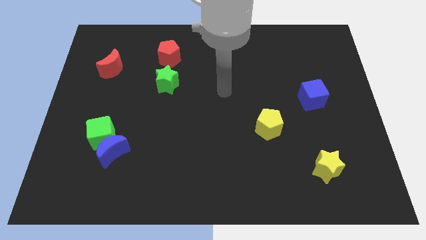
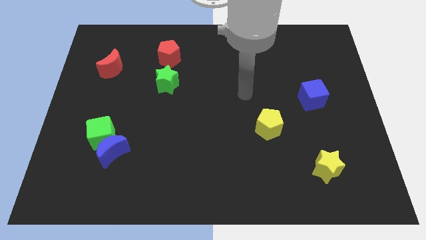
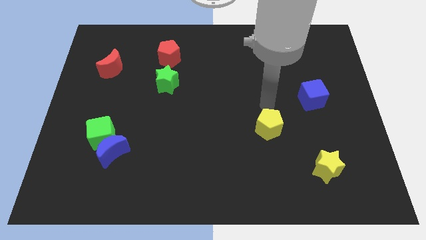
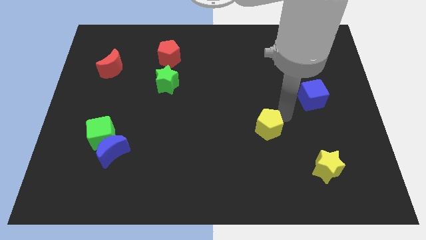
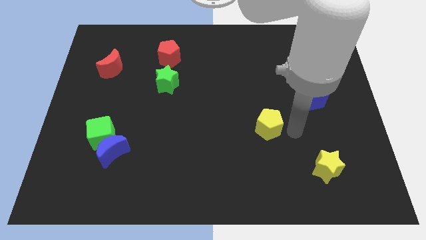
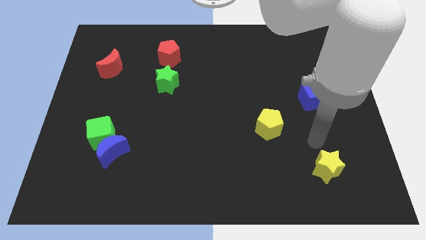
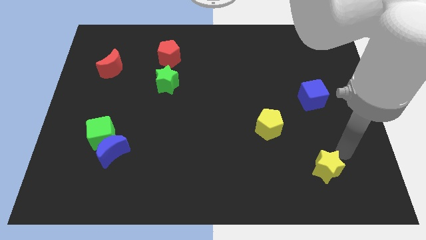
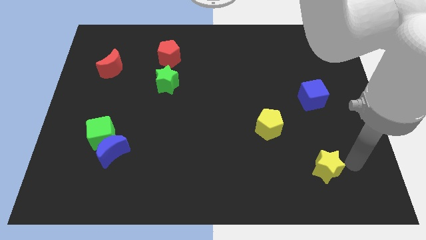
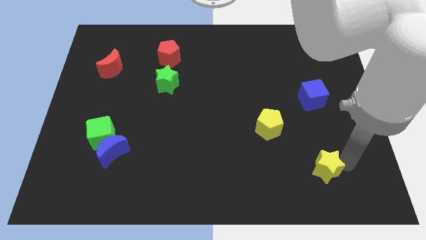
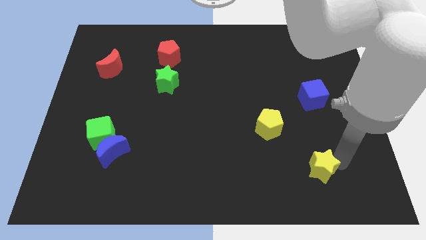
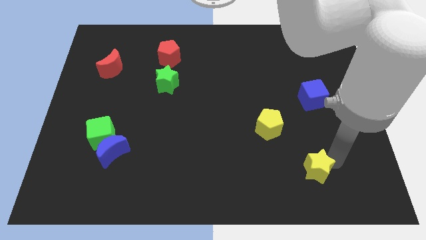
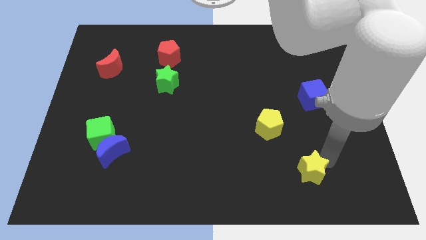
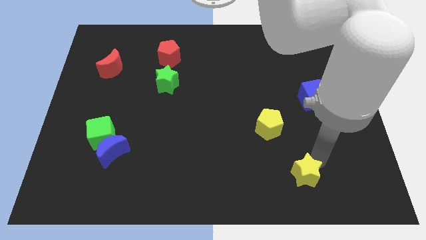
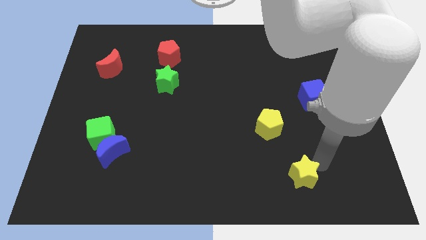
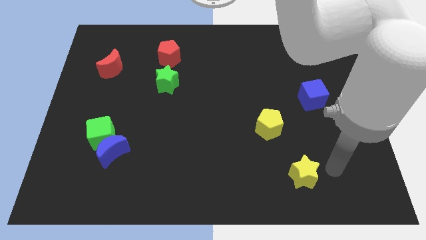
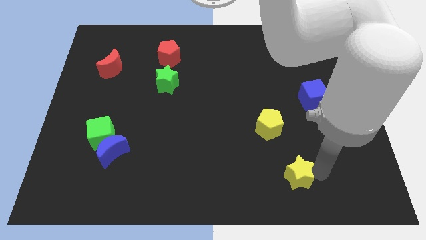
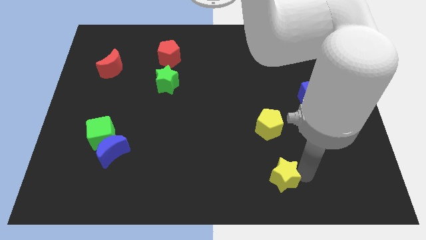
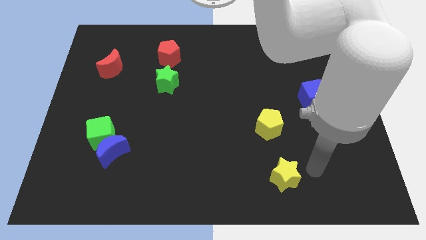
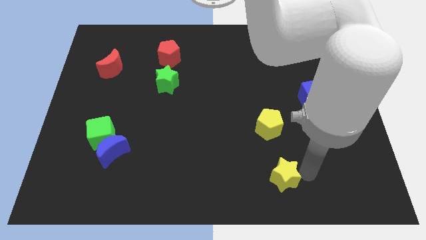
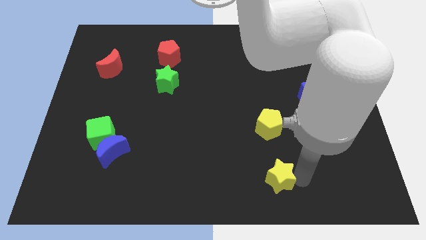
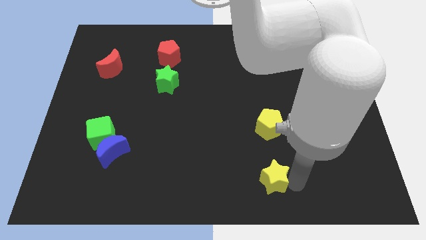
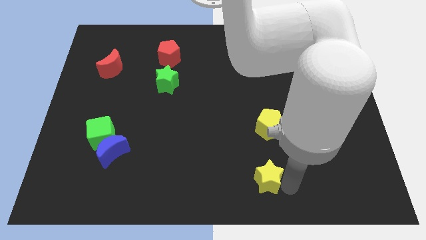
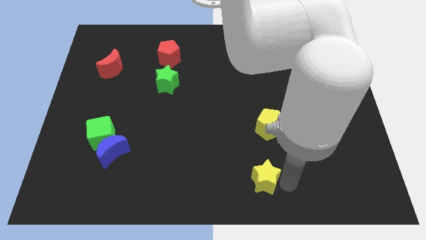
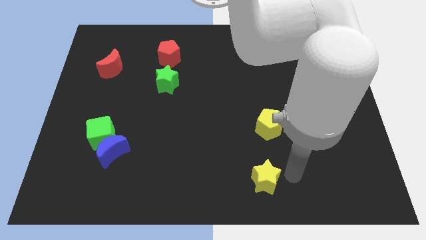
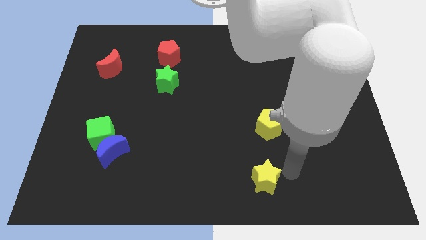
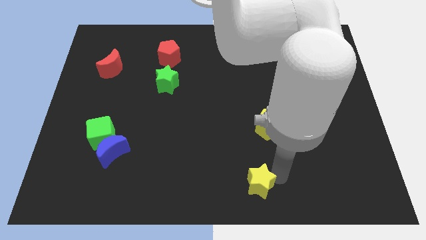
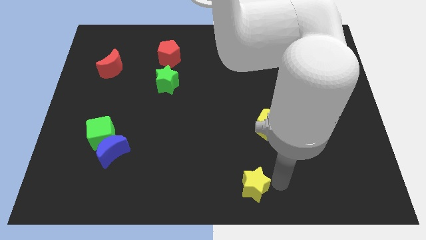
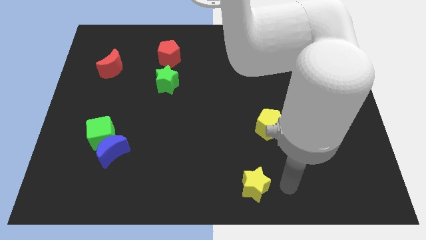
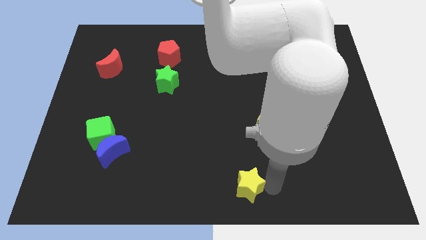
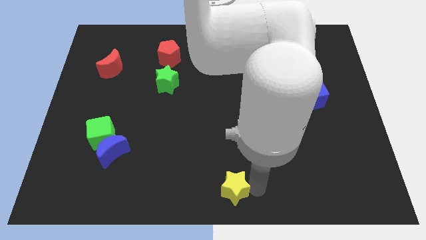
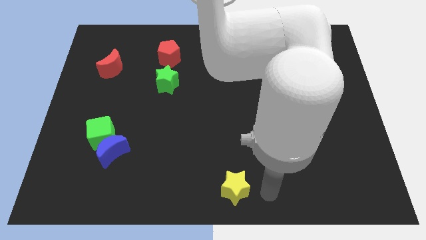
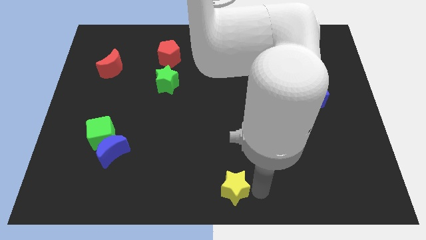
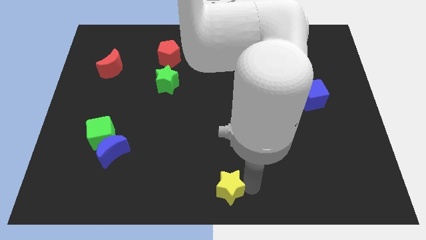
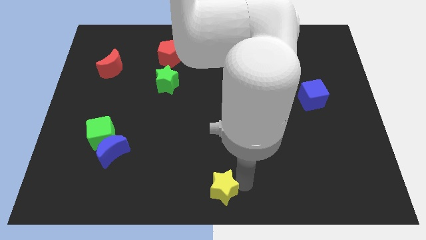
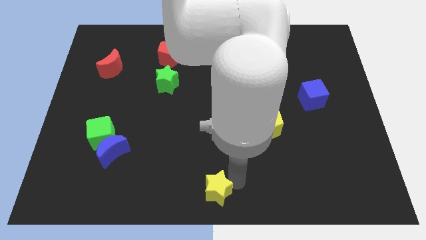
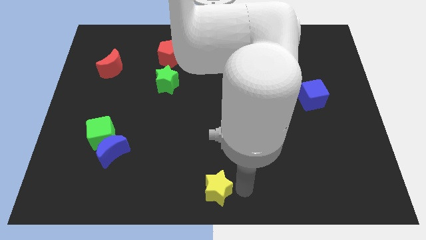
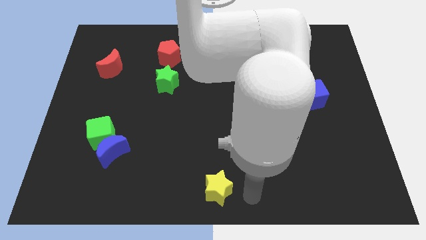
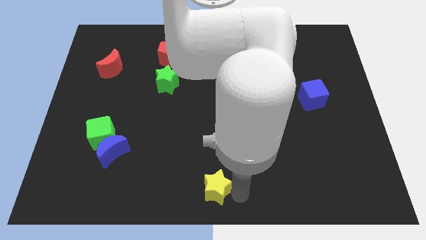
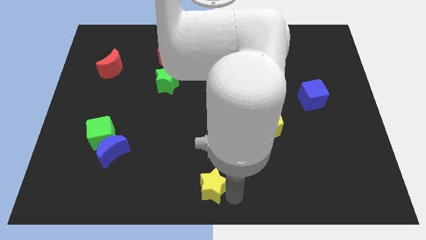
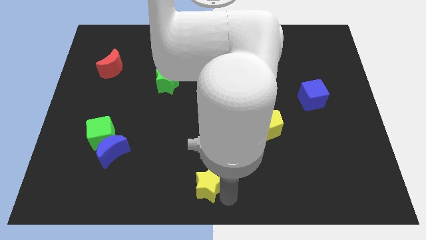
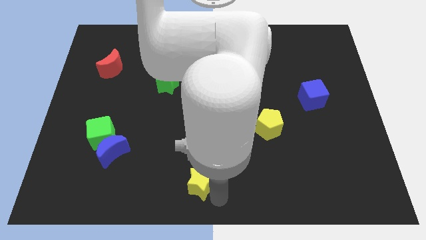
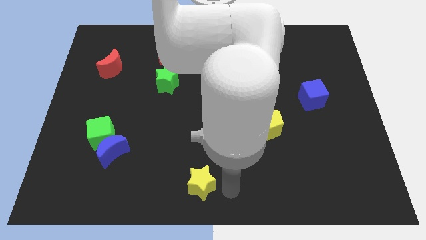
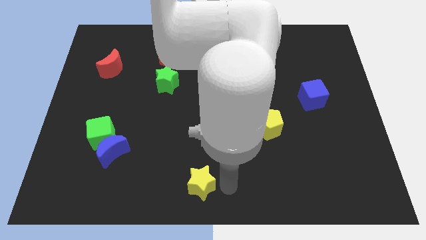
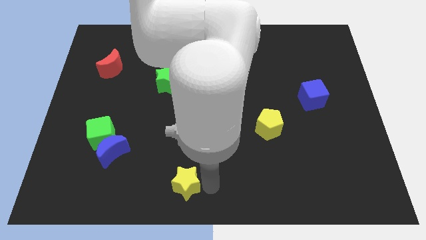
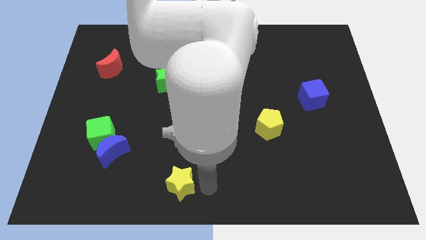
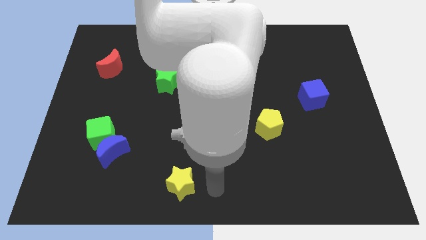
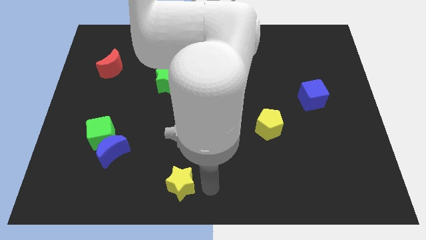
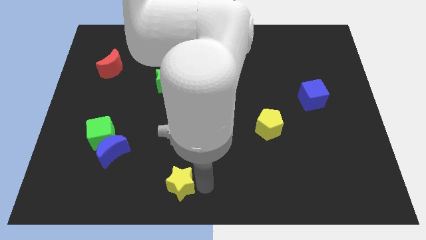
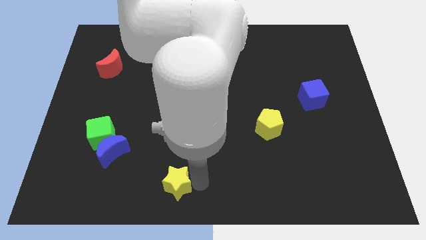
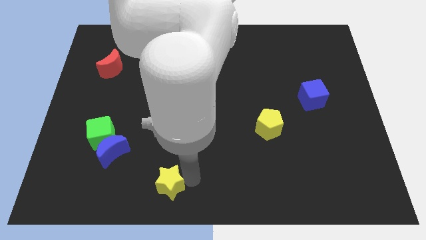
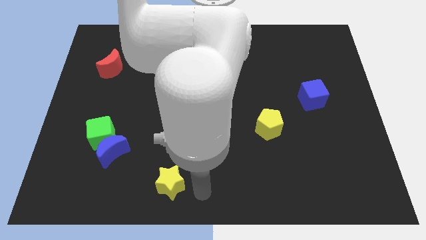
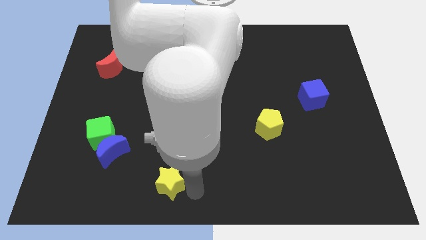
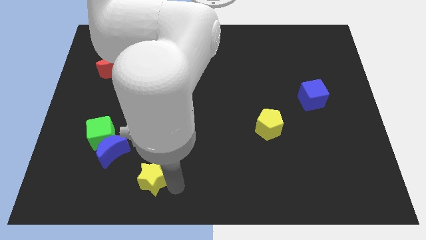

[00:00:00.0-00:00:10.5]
push the yellow star to the bottom right of the blue moon

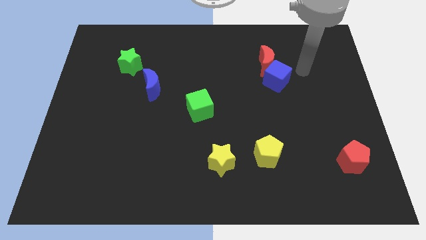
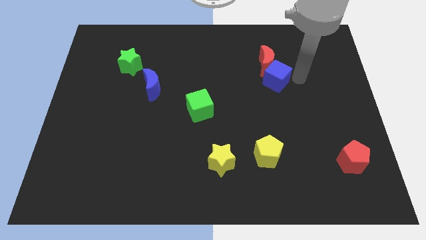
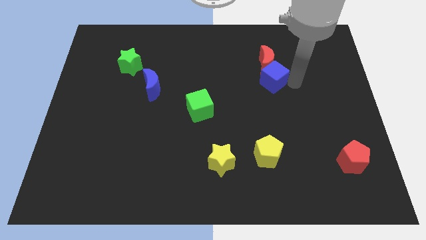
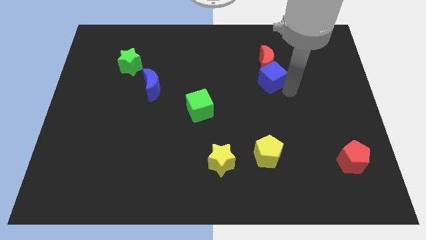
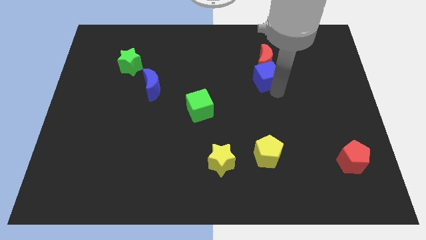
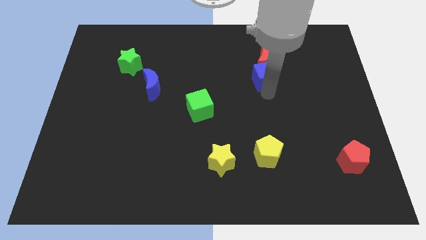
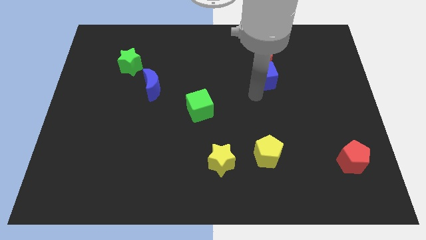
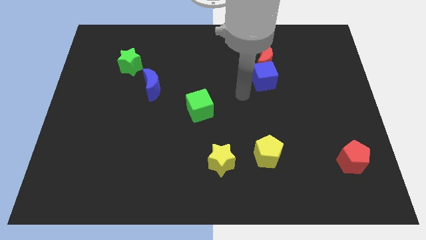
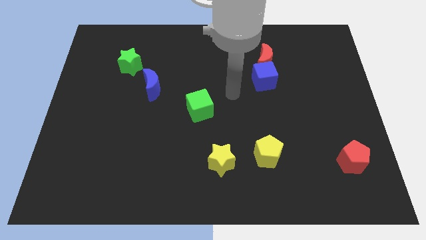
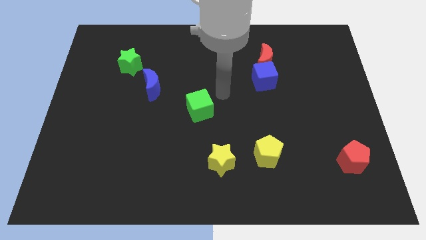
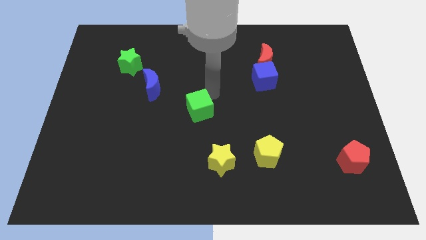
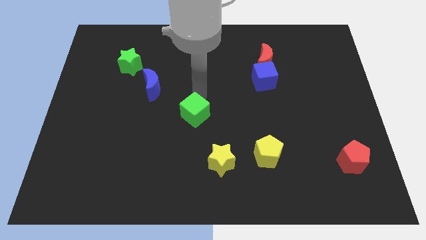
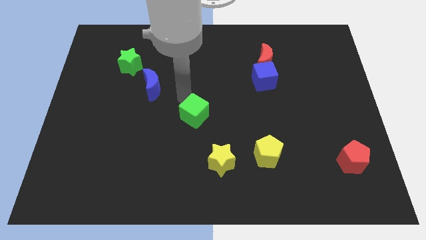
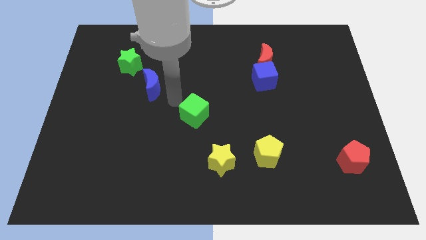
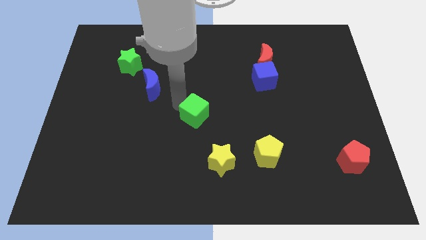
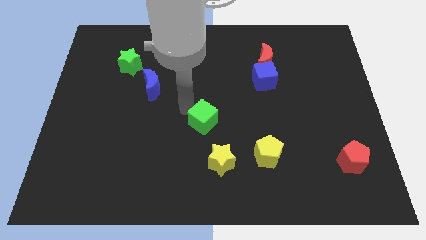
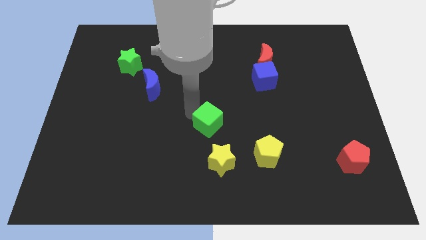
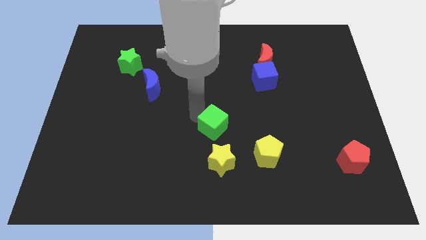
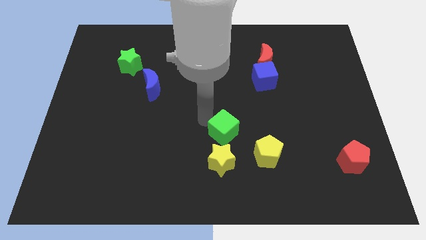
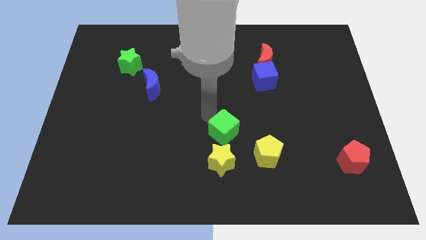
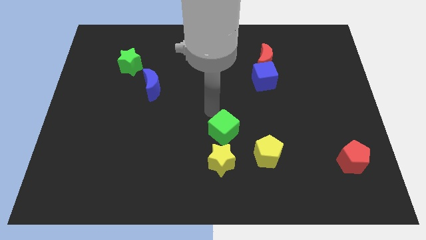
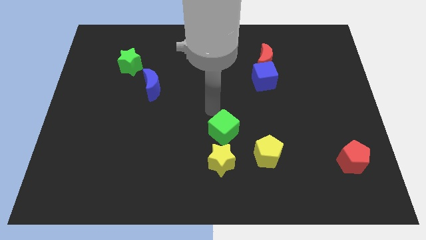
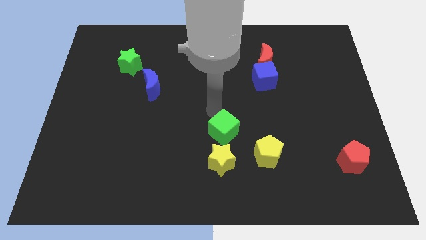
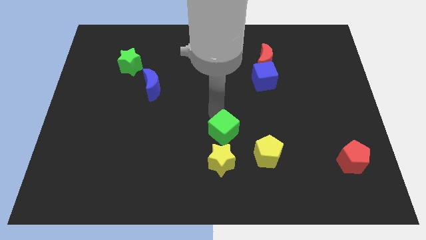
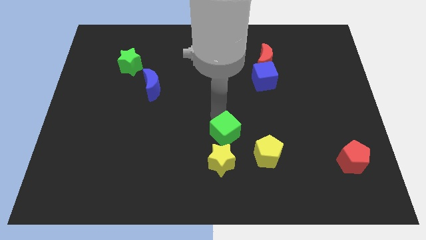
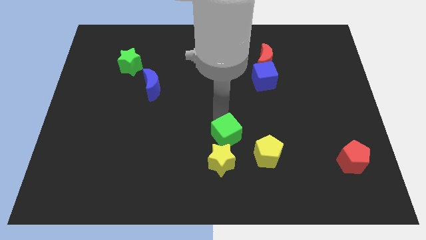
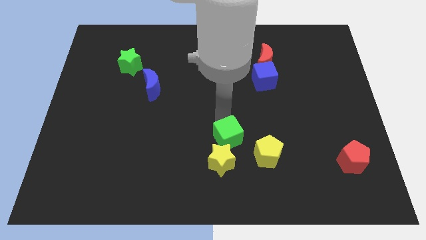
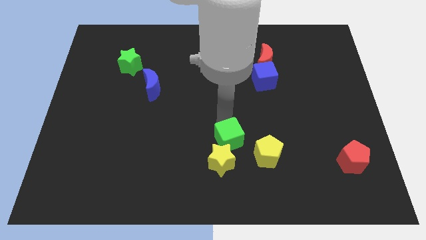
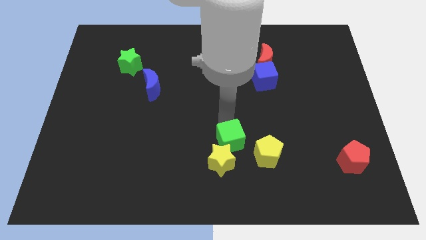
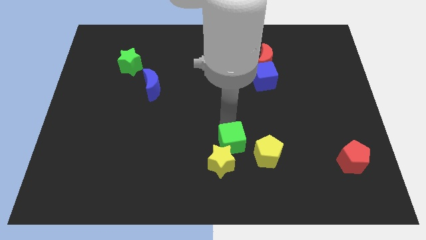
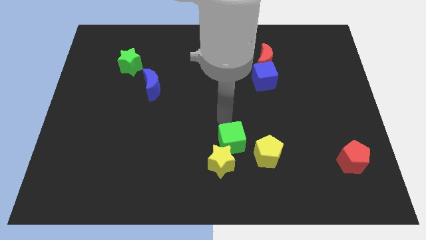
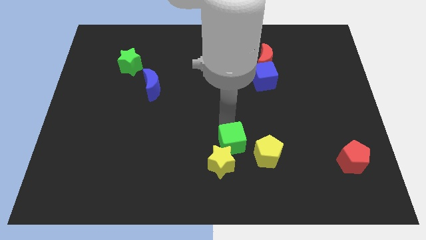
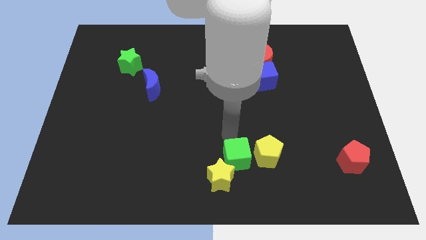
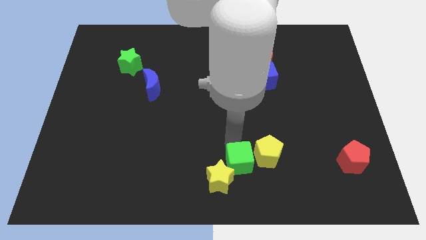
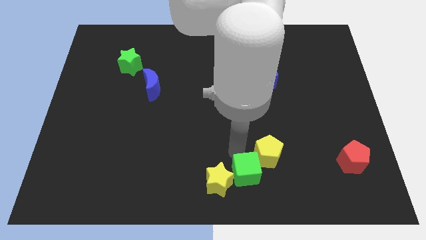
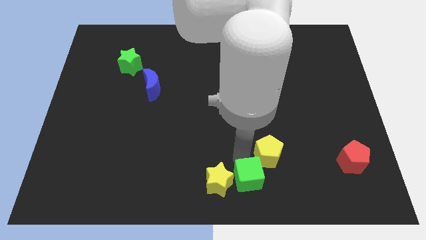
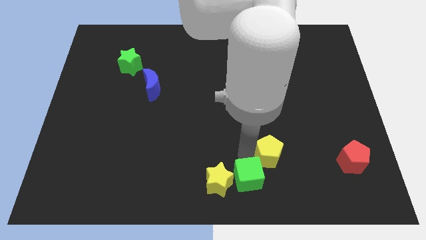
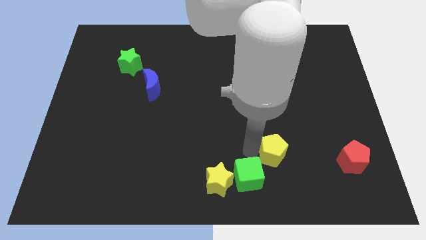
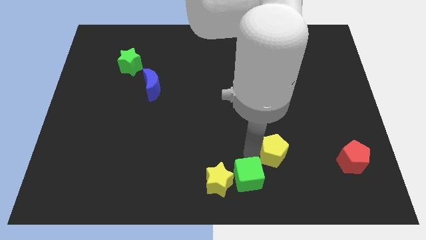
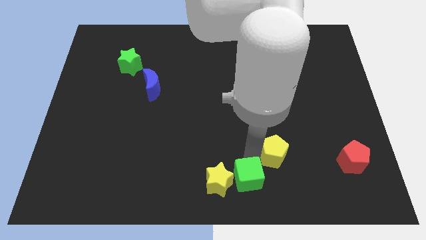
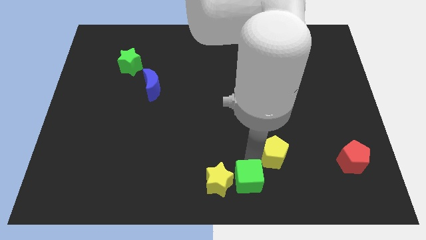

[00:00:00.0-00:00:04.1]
put the green cube to the bottom right of the yellow star
